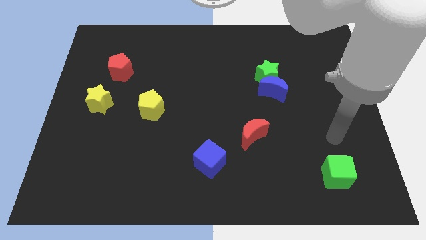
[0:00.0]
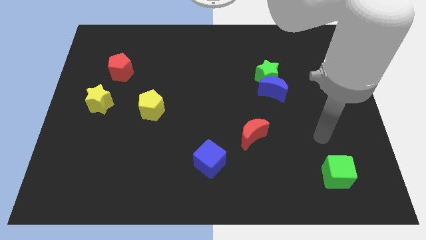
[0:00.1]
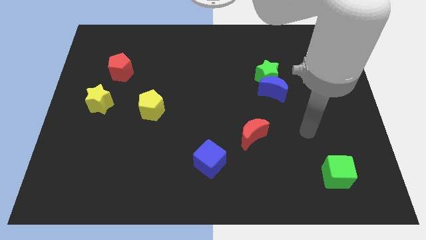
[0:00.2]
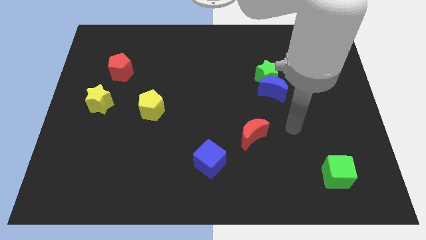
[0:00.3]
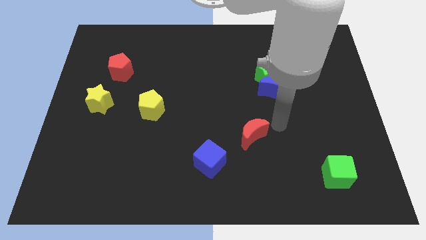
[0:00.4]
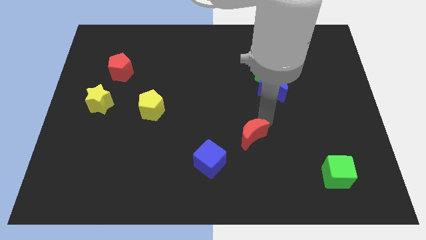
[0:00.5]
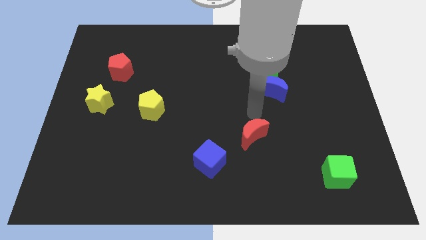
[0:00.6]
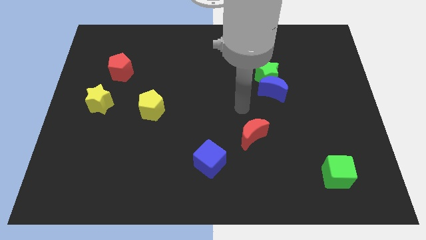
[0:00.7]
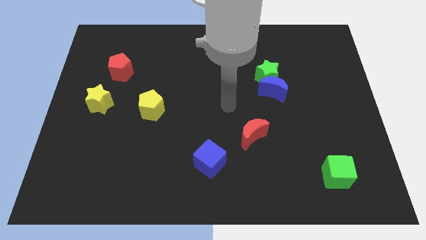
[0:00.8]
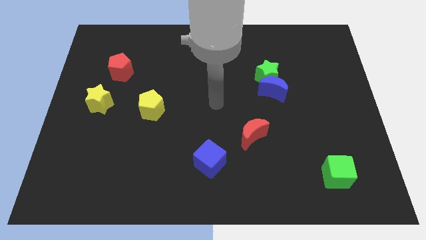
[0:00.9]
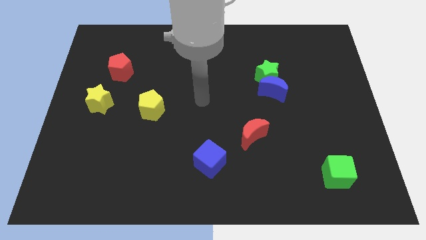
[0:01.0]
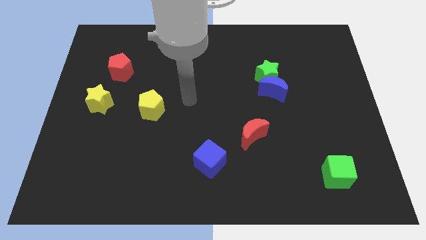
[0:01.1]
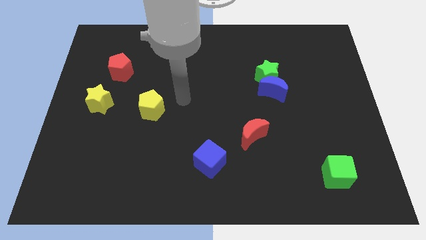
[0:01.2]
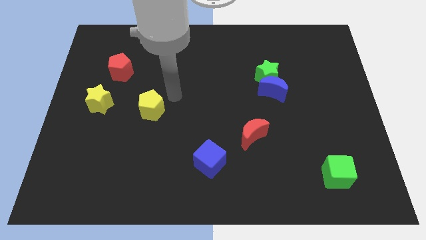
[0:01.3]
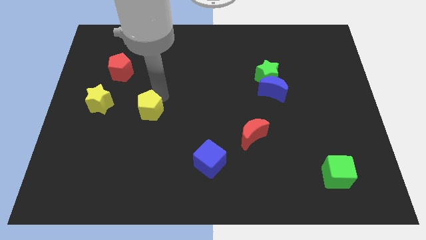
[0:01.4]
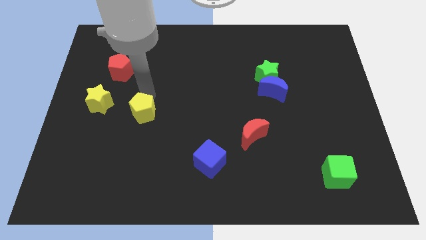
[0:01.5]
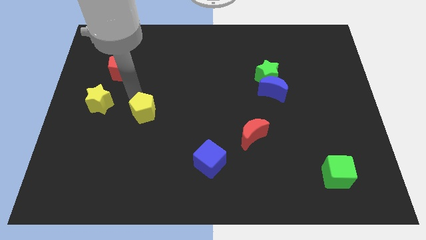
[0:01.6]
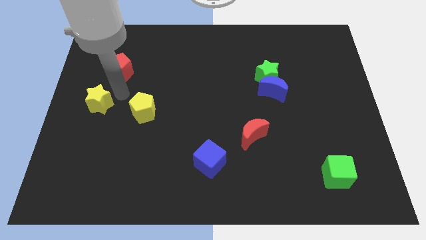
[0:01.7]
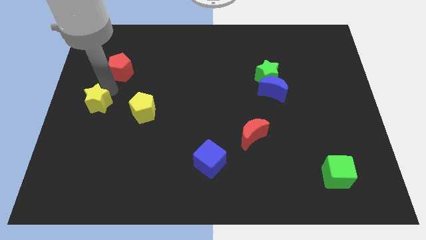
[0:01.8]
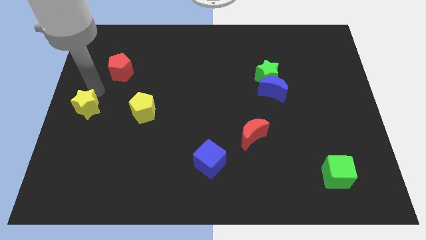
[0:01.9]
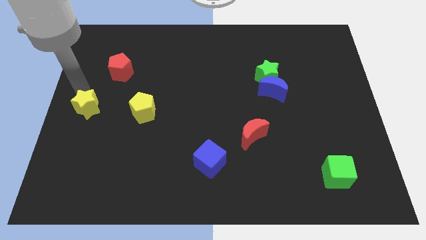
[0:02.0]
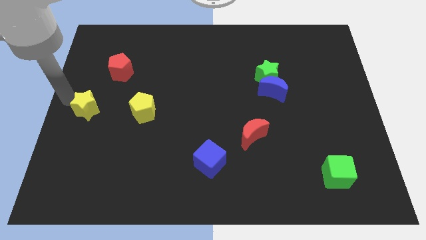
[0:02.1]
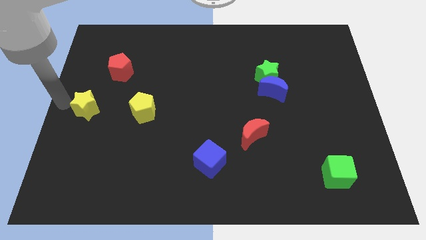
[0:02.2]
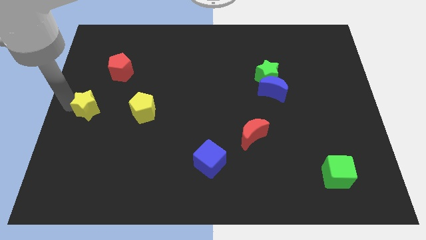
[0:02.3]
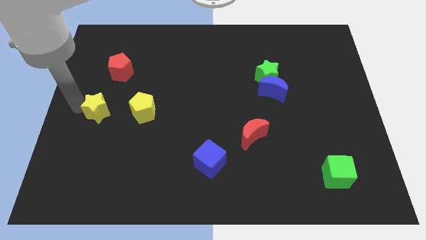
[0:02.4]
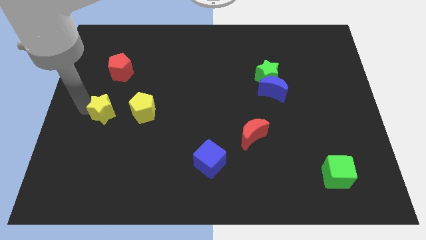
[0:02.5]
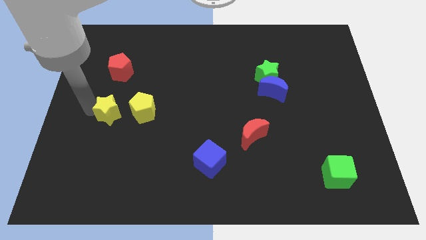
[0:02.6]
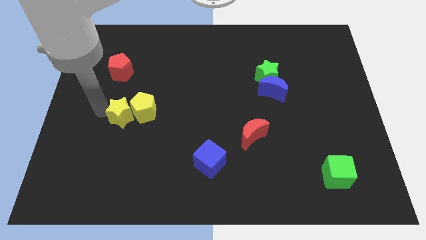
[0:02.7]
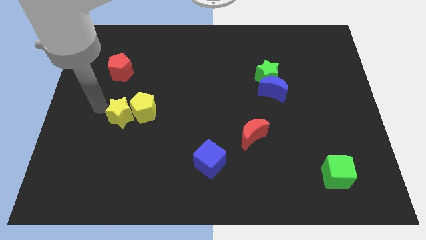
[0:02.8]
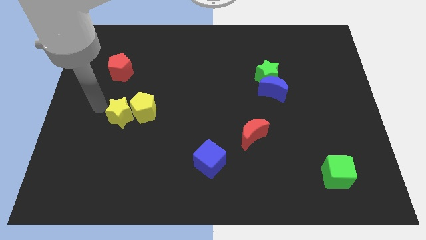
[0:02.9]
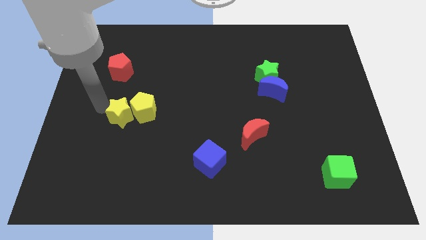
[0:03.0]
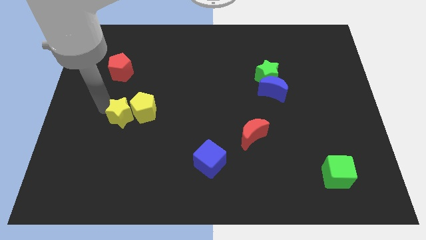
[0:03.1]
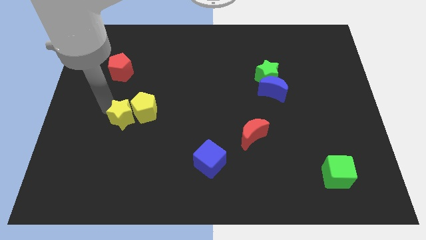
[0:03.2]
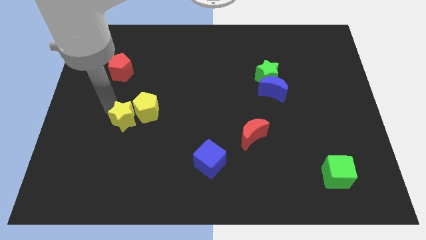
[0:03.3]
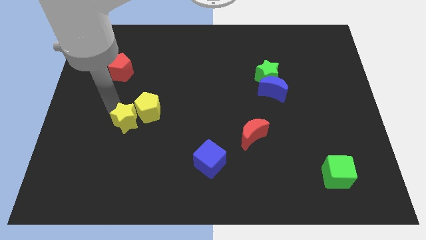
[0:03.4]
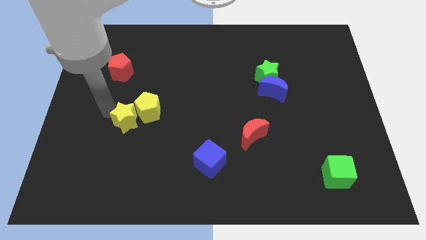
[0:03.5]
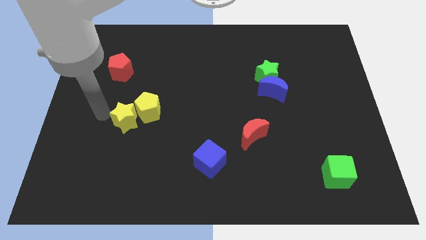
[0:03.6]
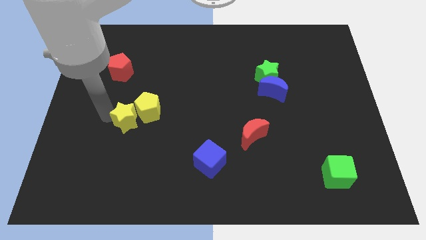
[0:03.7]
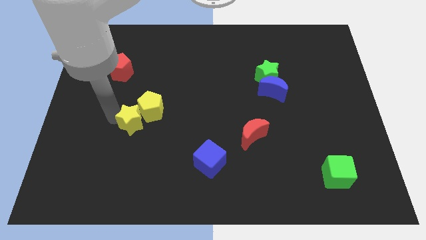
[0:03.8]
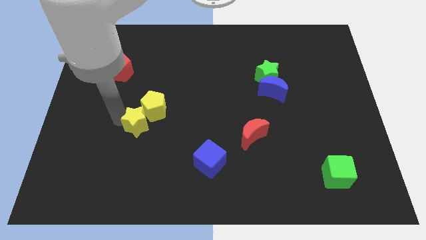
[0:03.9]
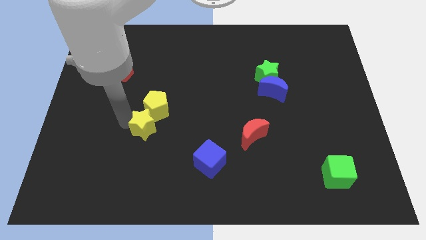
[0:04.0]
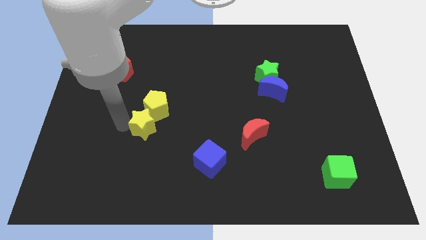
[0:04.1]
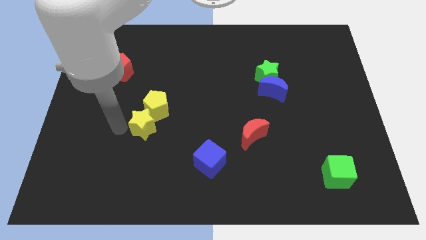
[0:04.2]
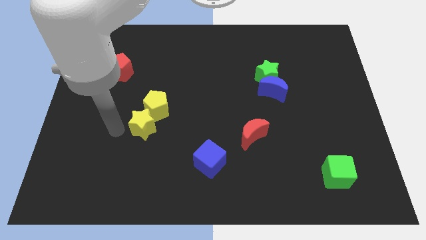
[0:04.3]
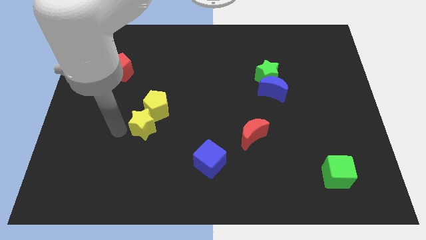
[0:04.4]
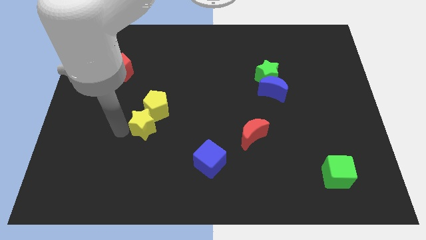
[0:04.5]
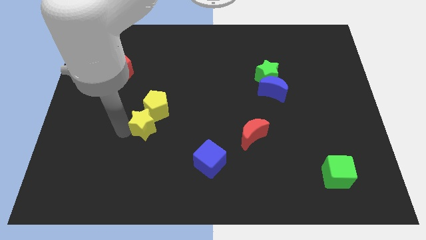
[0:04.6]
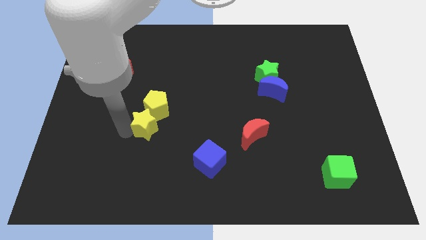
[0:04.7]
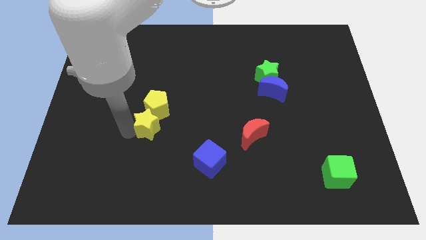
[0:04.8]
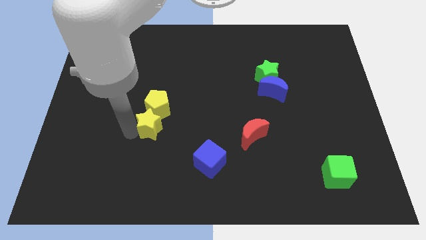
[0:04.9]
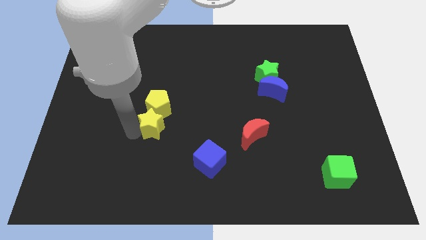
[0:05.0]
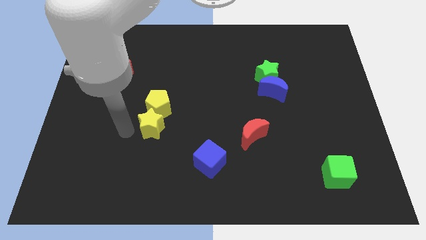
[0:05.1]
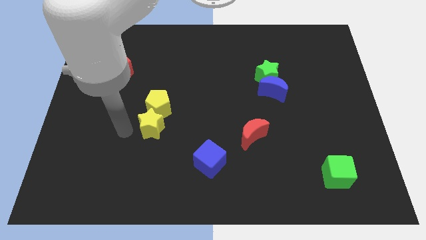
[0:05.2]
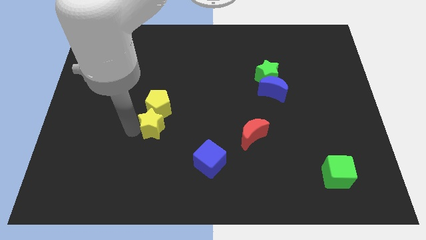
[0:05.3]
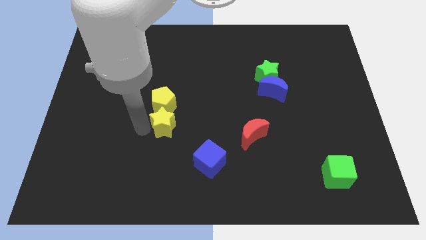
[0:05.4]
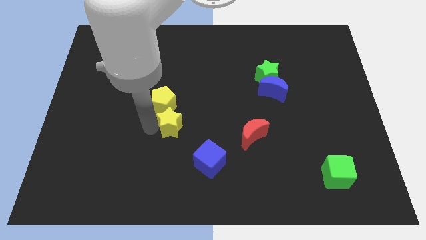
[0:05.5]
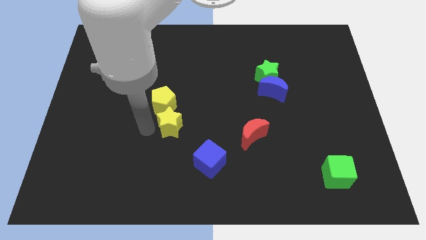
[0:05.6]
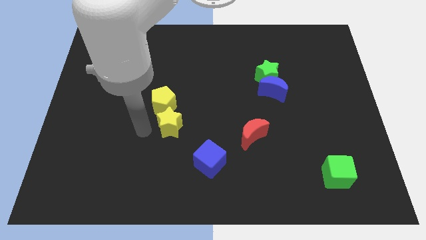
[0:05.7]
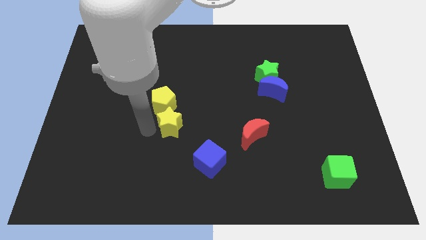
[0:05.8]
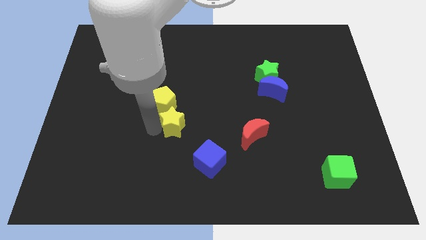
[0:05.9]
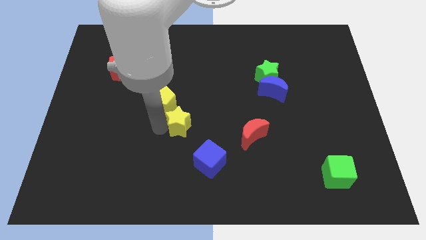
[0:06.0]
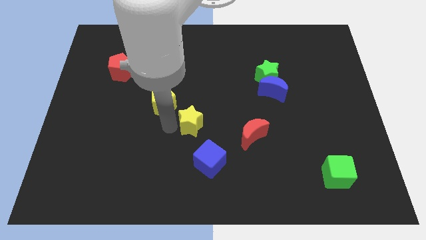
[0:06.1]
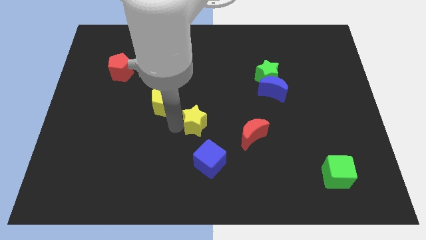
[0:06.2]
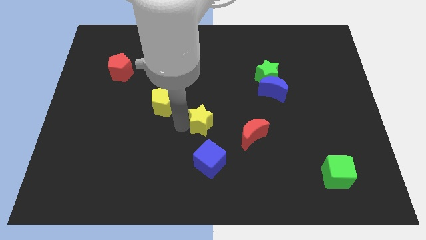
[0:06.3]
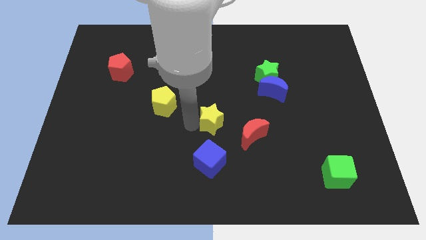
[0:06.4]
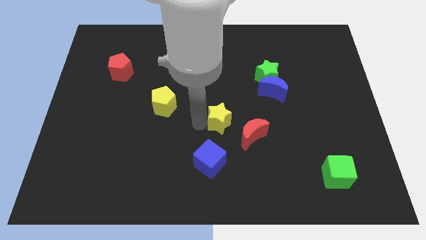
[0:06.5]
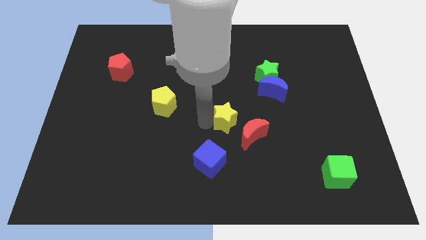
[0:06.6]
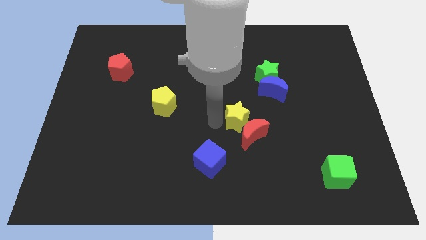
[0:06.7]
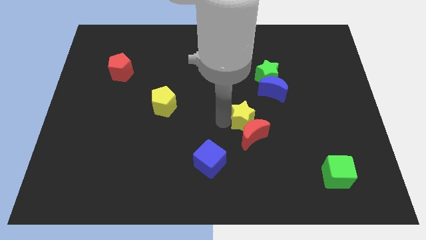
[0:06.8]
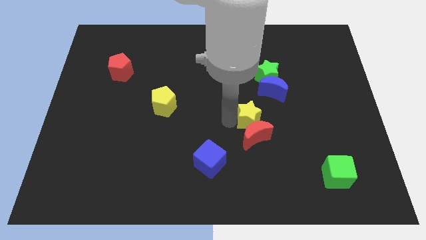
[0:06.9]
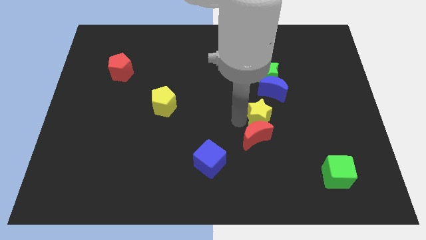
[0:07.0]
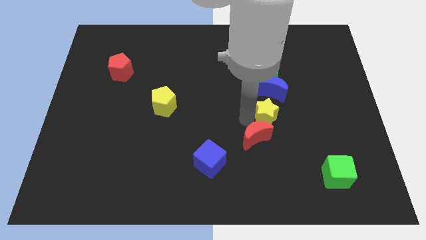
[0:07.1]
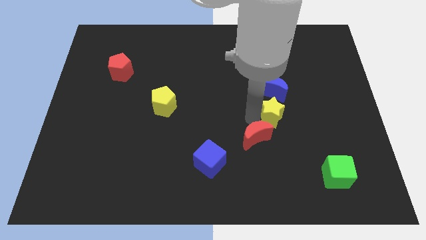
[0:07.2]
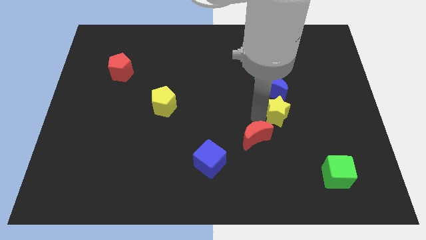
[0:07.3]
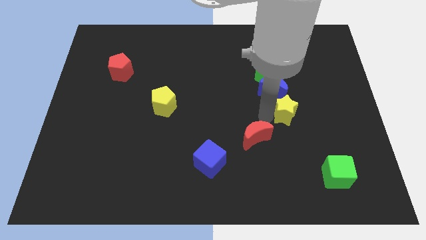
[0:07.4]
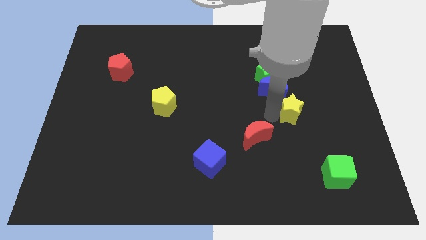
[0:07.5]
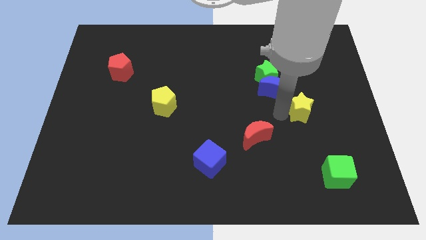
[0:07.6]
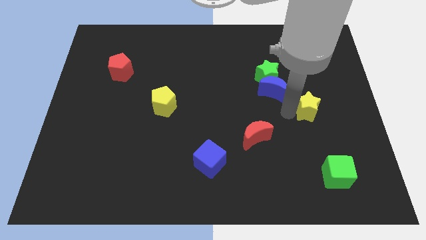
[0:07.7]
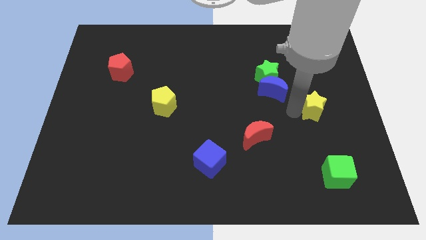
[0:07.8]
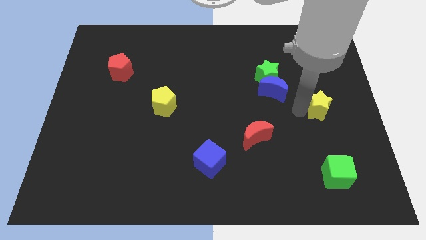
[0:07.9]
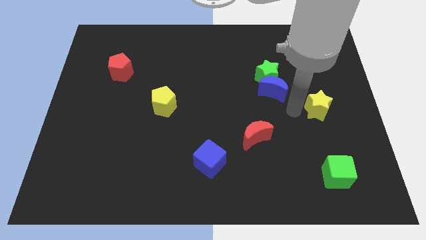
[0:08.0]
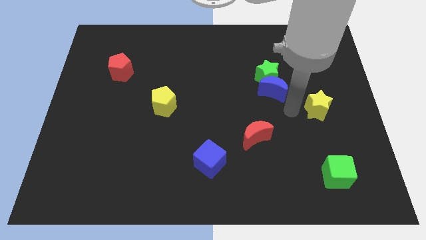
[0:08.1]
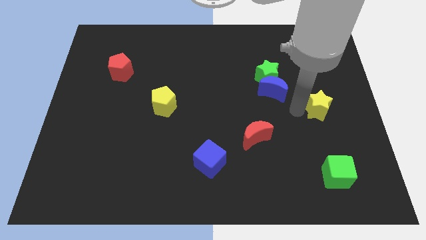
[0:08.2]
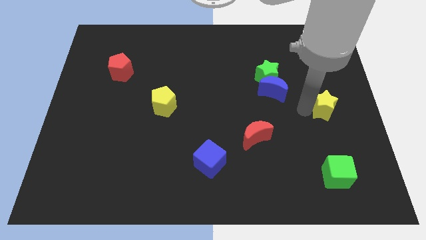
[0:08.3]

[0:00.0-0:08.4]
slide the yellow star to the right side of the board
